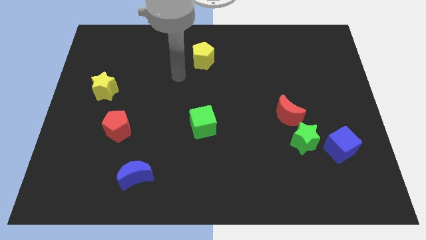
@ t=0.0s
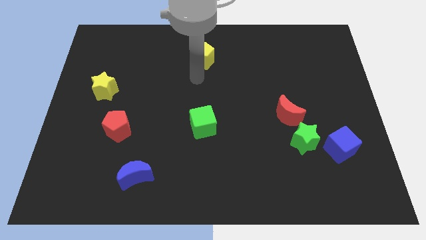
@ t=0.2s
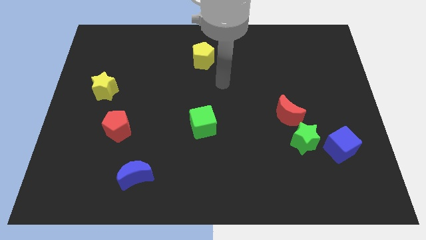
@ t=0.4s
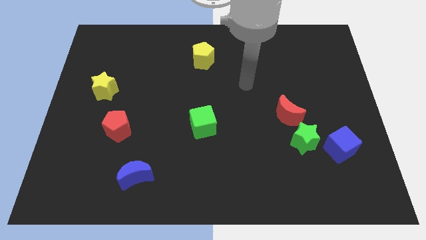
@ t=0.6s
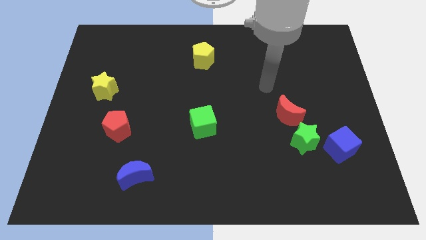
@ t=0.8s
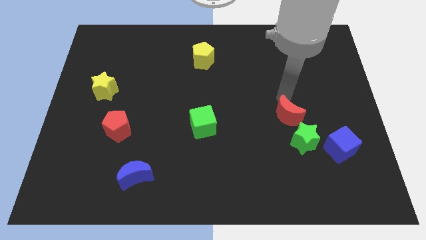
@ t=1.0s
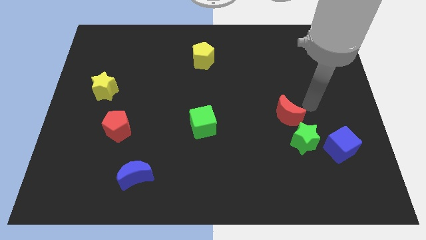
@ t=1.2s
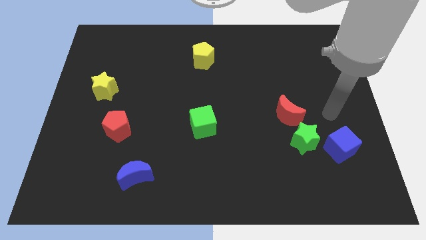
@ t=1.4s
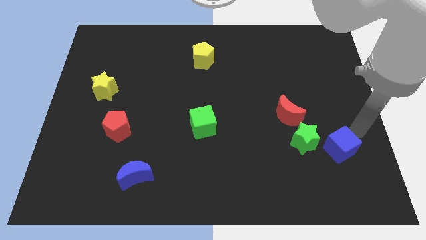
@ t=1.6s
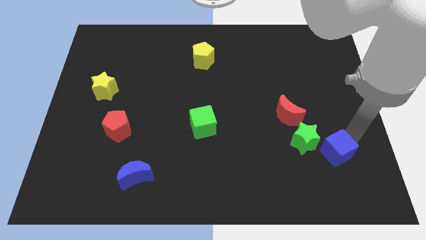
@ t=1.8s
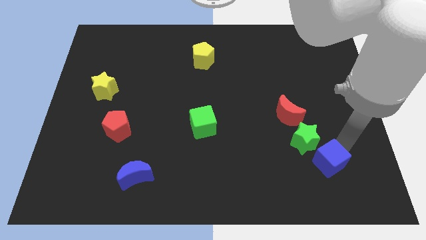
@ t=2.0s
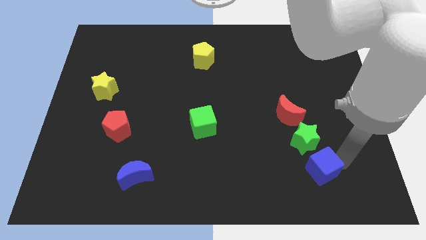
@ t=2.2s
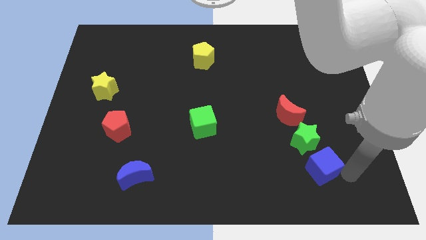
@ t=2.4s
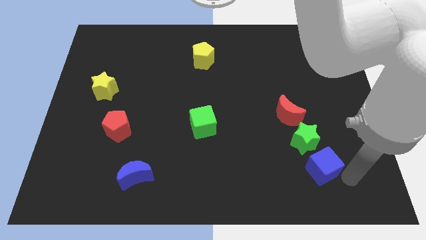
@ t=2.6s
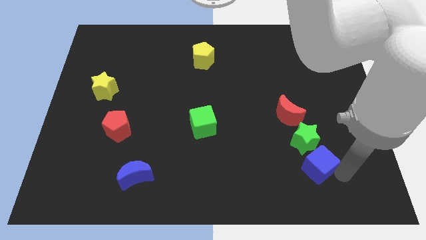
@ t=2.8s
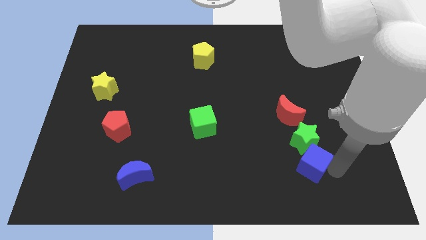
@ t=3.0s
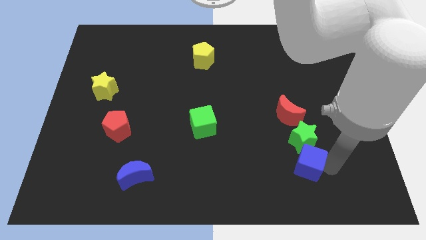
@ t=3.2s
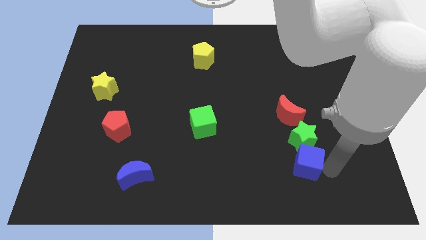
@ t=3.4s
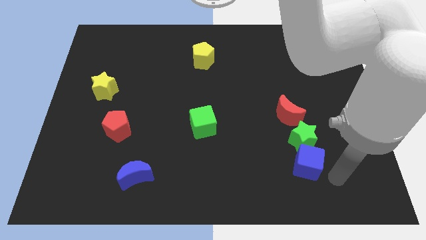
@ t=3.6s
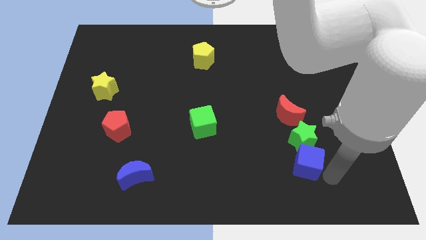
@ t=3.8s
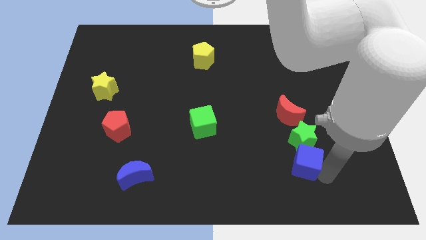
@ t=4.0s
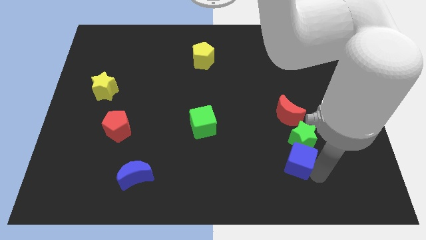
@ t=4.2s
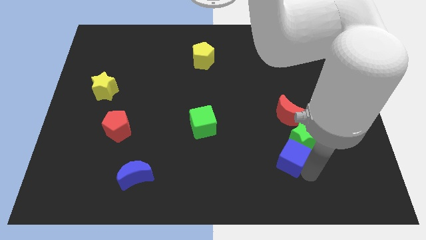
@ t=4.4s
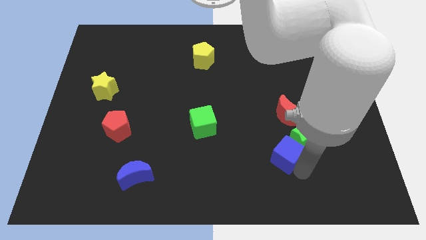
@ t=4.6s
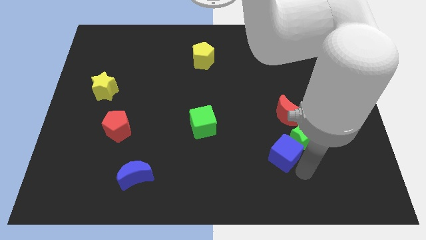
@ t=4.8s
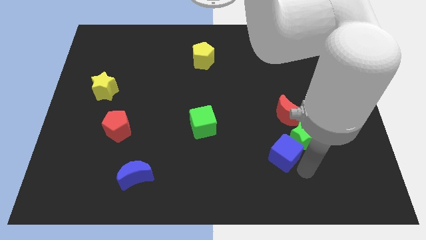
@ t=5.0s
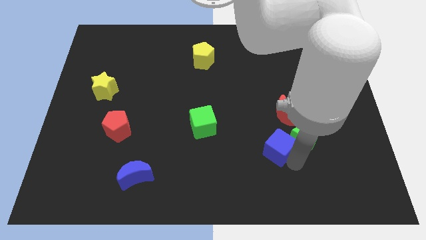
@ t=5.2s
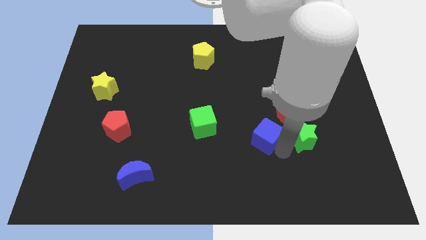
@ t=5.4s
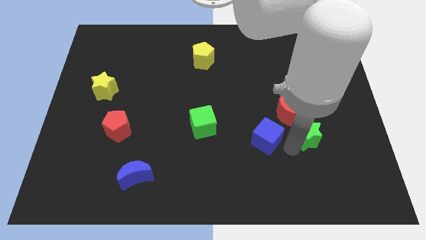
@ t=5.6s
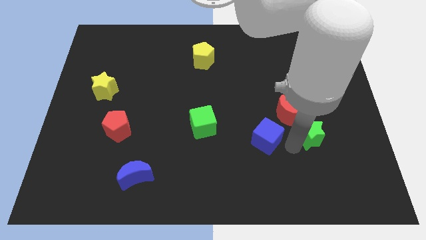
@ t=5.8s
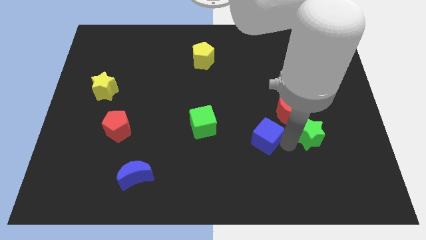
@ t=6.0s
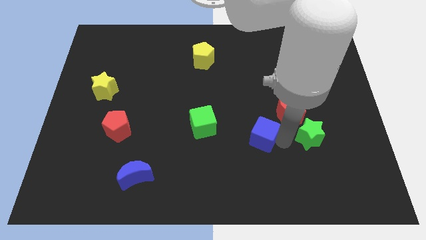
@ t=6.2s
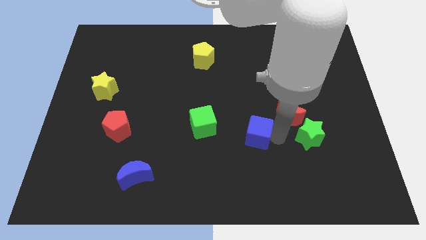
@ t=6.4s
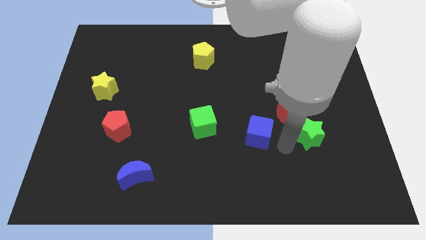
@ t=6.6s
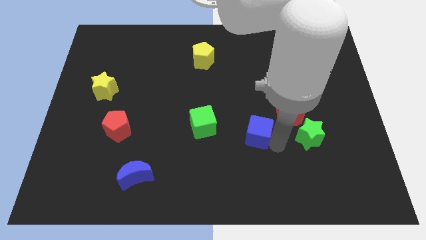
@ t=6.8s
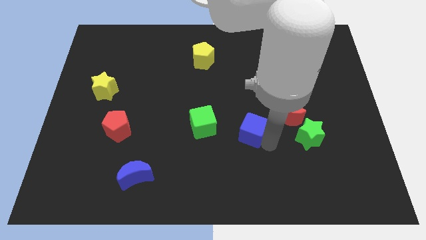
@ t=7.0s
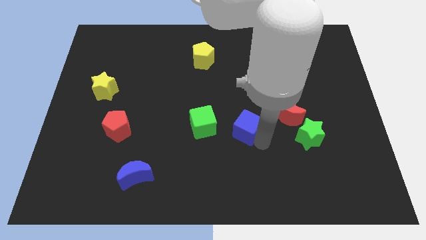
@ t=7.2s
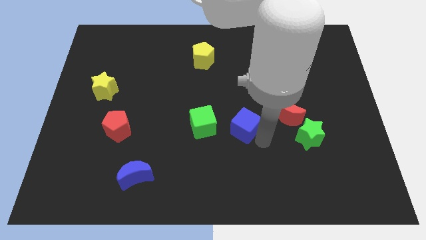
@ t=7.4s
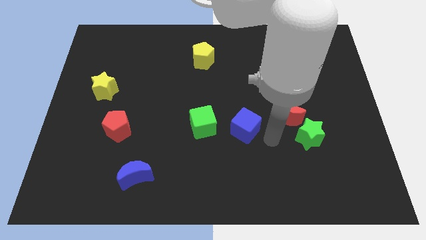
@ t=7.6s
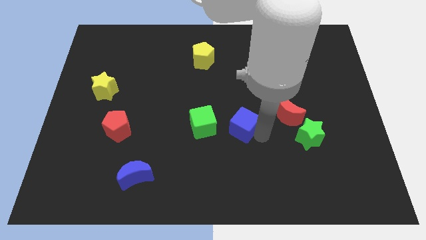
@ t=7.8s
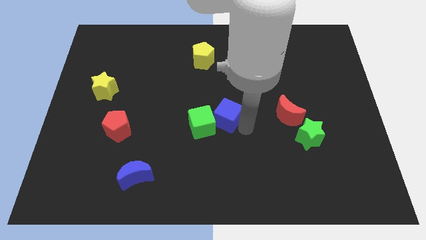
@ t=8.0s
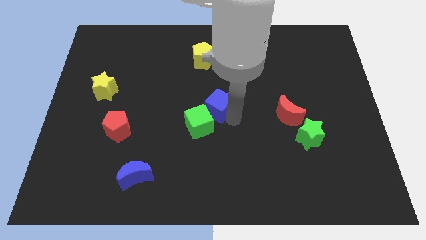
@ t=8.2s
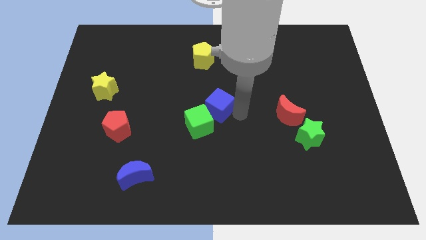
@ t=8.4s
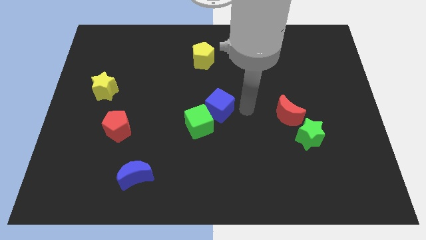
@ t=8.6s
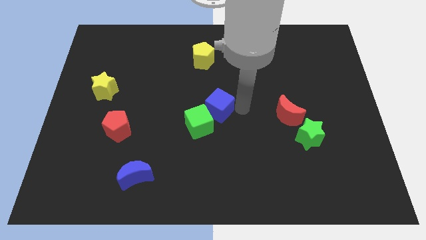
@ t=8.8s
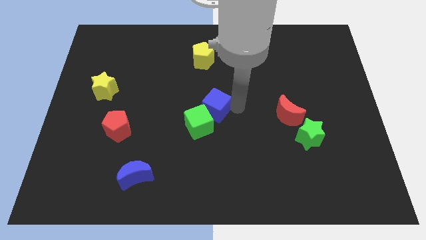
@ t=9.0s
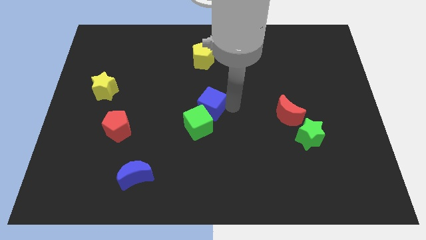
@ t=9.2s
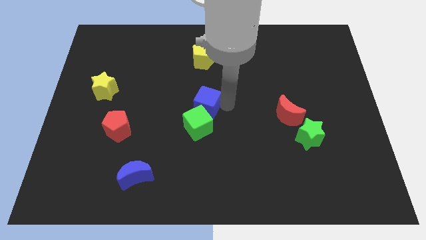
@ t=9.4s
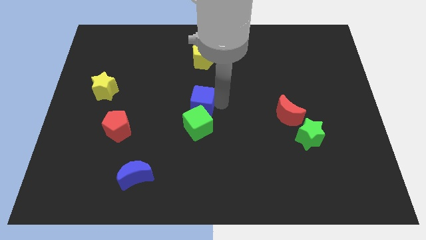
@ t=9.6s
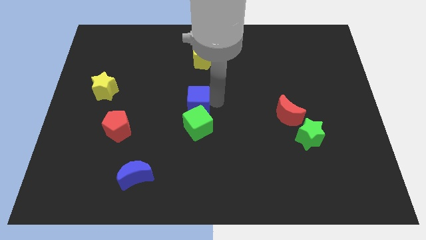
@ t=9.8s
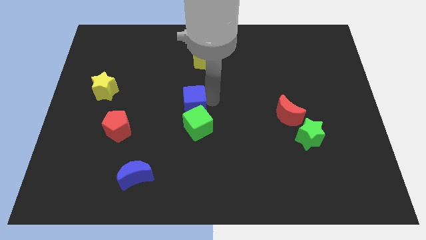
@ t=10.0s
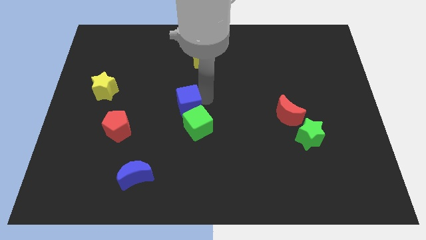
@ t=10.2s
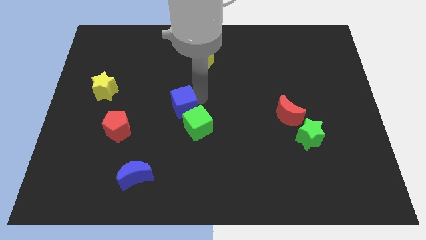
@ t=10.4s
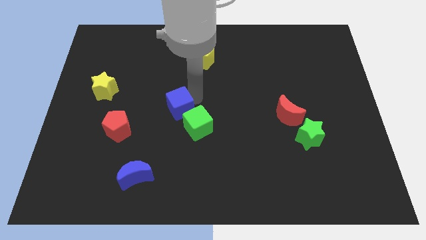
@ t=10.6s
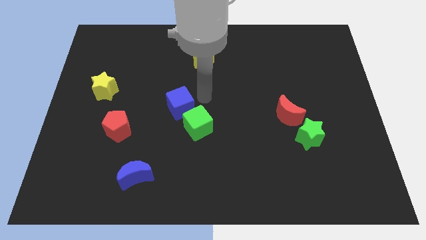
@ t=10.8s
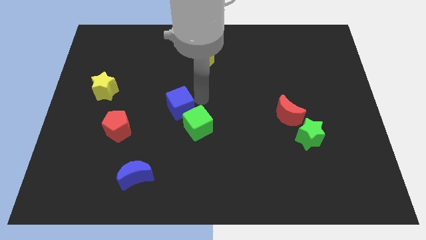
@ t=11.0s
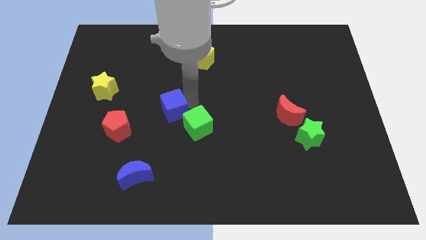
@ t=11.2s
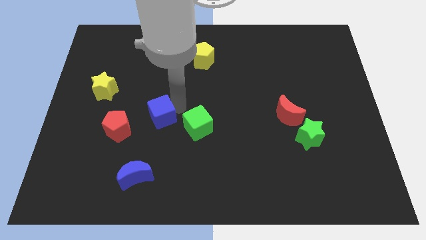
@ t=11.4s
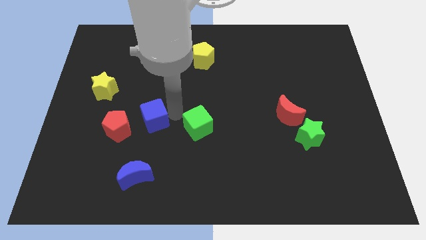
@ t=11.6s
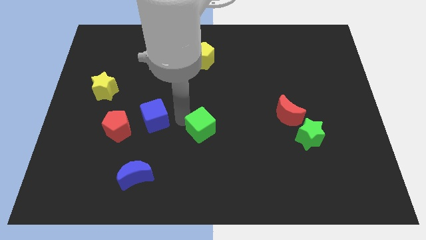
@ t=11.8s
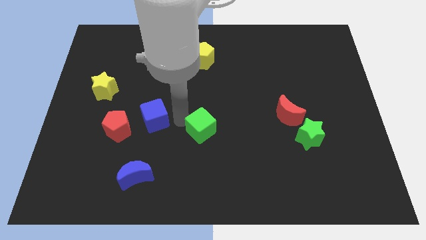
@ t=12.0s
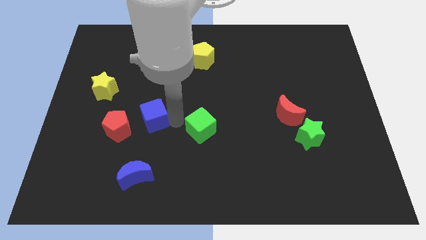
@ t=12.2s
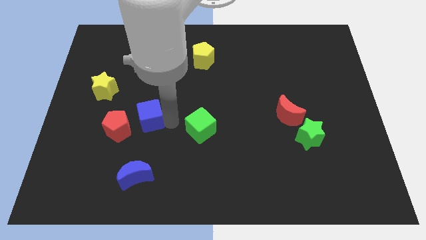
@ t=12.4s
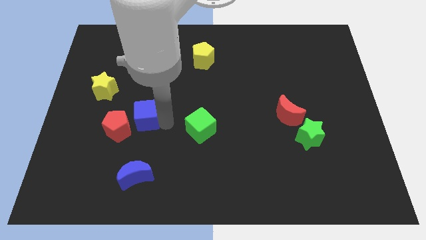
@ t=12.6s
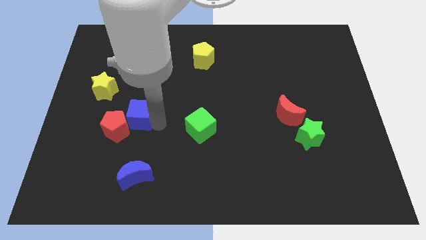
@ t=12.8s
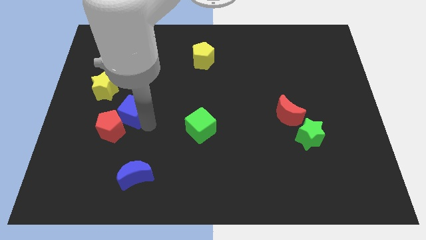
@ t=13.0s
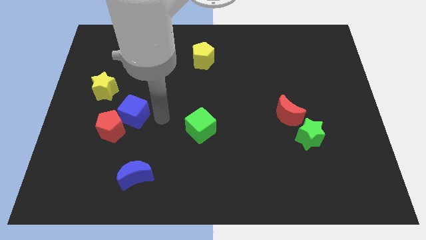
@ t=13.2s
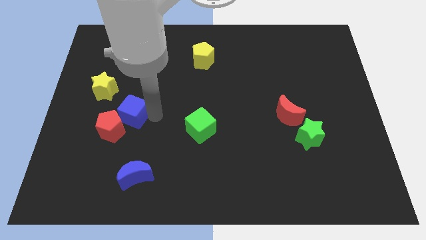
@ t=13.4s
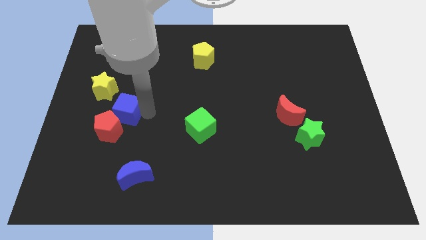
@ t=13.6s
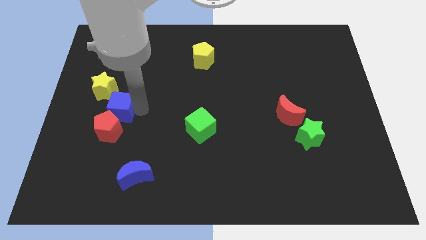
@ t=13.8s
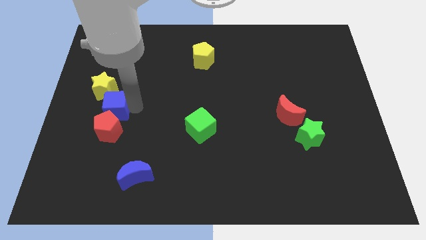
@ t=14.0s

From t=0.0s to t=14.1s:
push the blue cube diagonally up and to the left of the red pentagon
